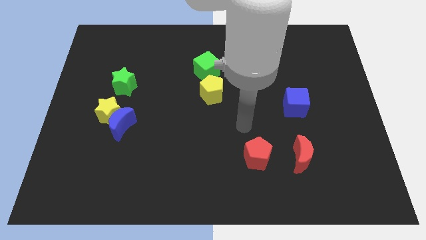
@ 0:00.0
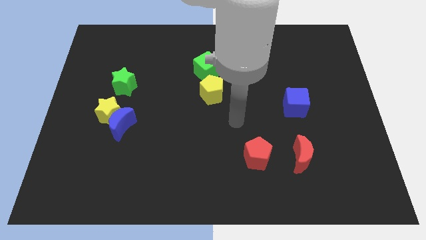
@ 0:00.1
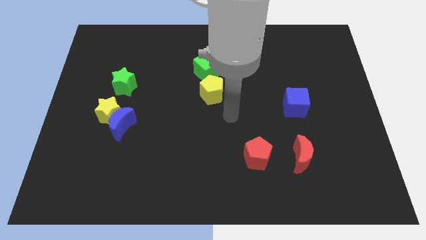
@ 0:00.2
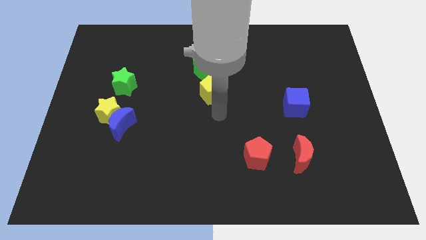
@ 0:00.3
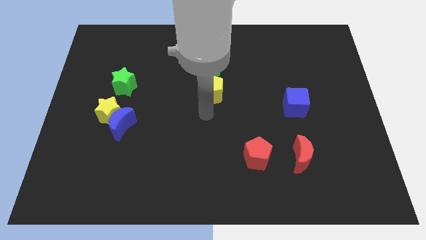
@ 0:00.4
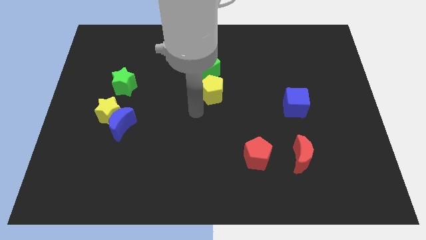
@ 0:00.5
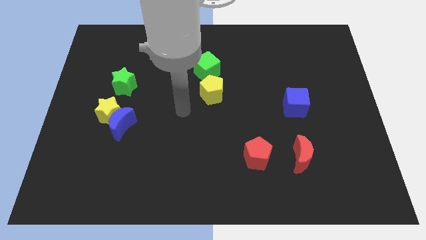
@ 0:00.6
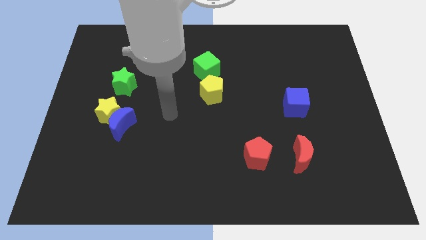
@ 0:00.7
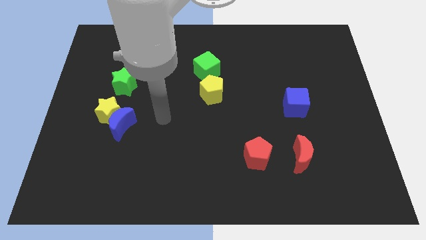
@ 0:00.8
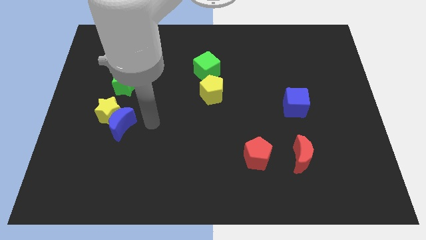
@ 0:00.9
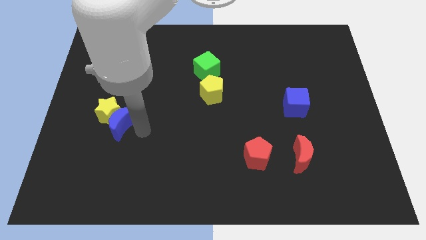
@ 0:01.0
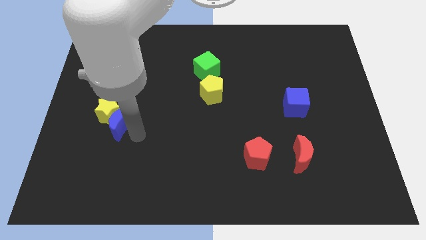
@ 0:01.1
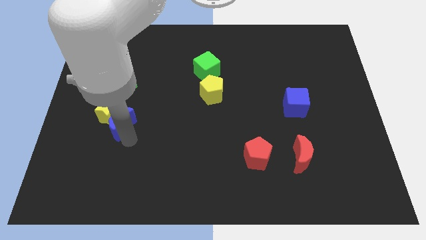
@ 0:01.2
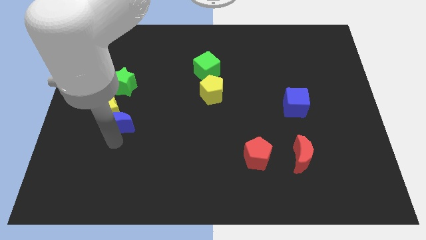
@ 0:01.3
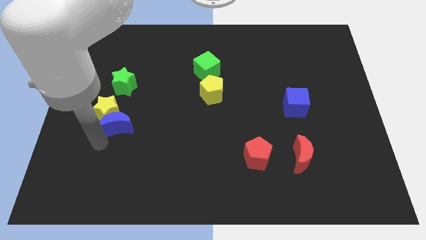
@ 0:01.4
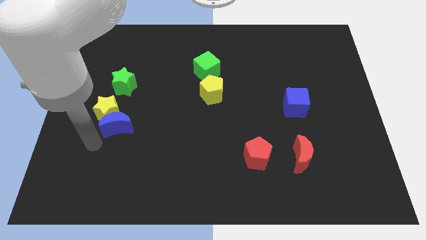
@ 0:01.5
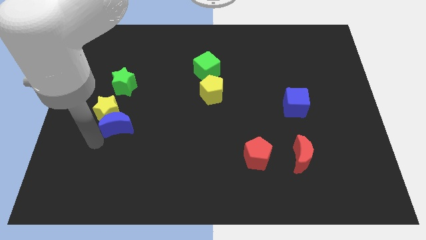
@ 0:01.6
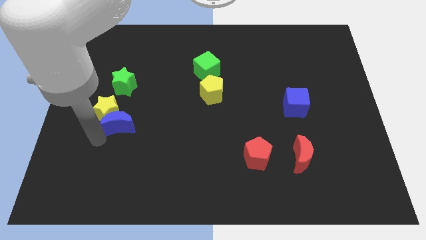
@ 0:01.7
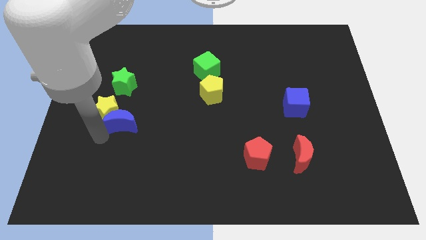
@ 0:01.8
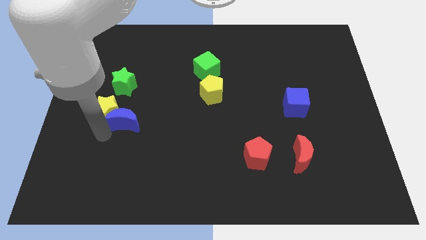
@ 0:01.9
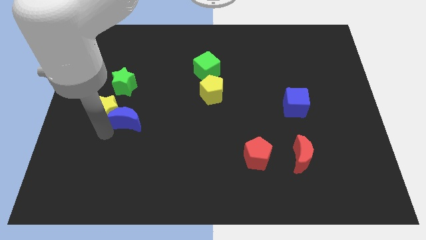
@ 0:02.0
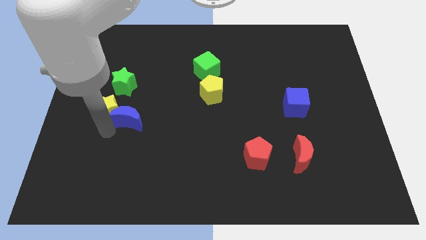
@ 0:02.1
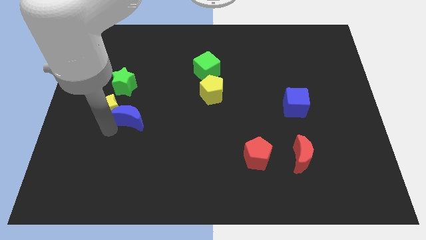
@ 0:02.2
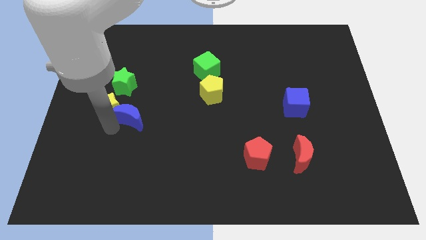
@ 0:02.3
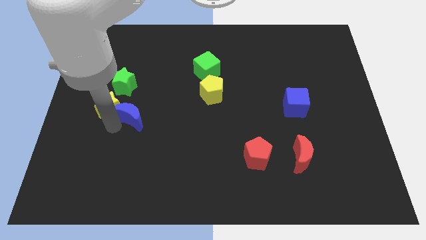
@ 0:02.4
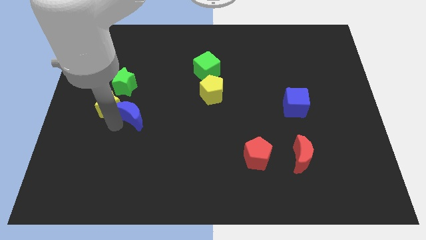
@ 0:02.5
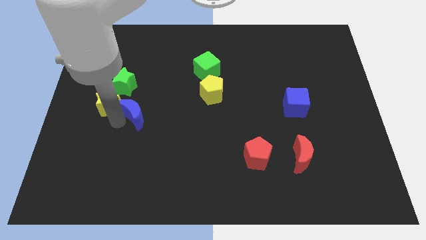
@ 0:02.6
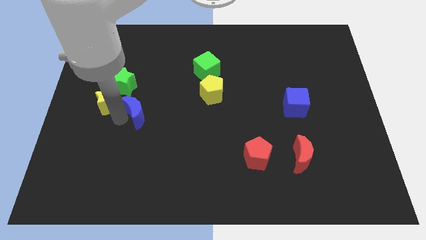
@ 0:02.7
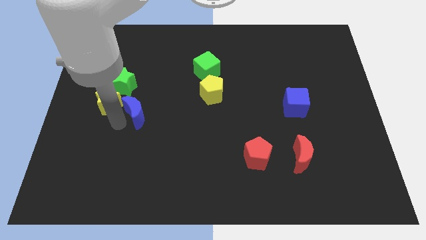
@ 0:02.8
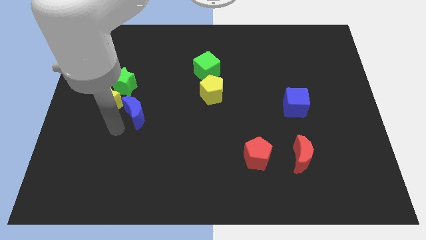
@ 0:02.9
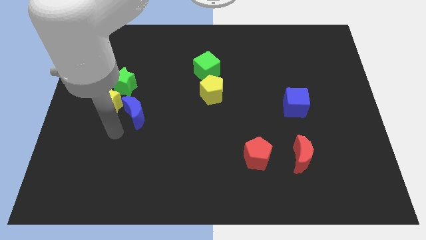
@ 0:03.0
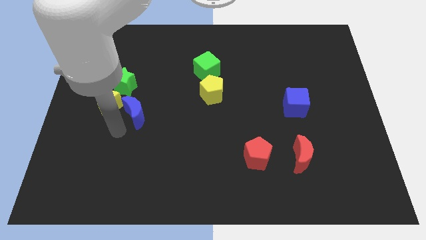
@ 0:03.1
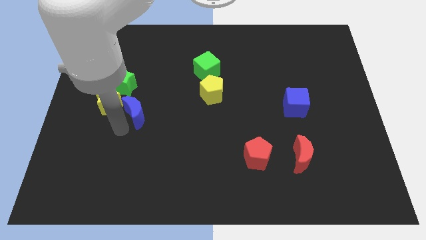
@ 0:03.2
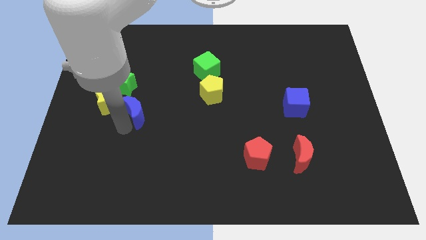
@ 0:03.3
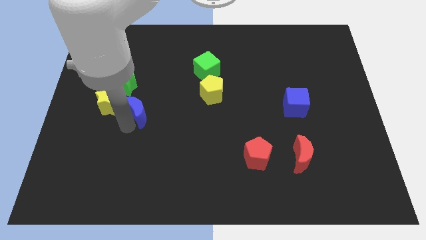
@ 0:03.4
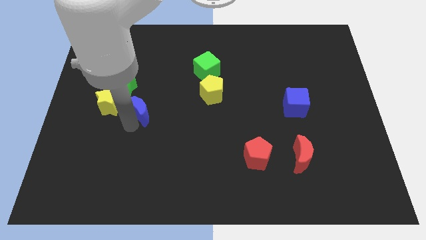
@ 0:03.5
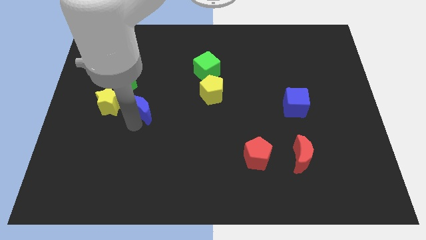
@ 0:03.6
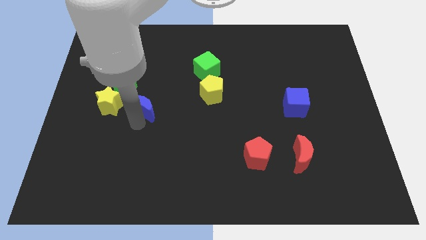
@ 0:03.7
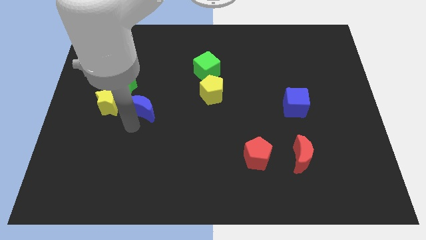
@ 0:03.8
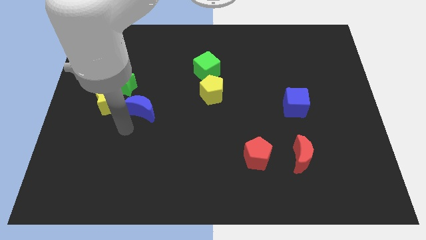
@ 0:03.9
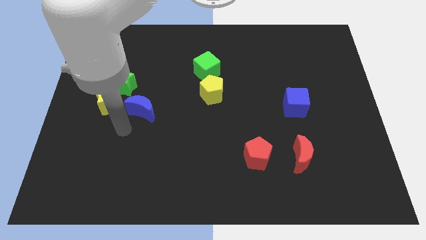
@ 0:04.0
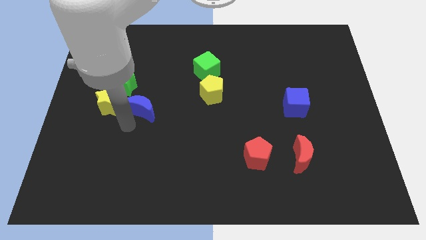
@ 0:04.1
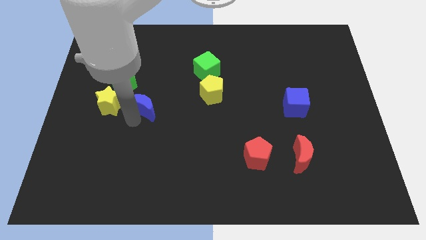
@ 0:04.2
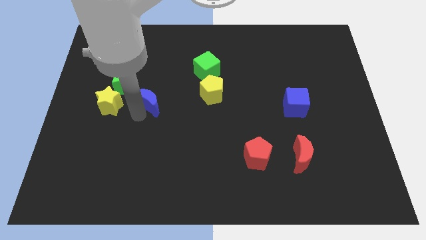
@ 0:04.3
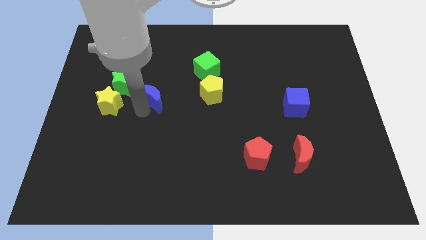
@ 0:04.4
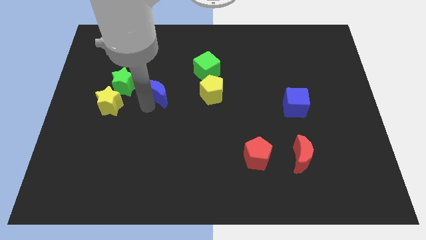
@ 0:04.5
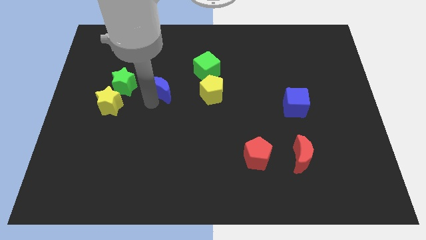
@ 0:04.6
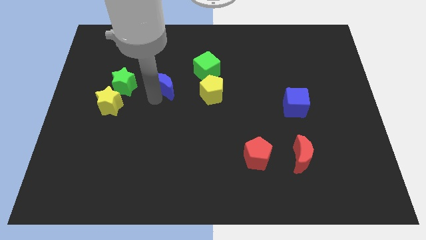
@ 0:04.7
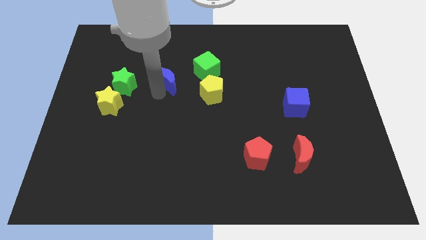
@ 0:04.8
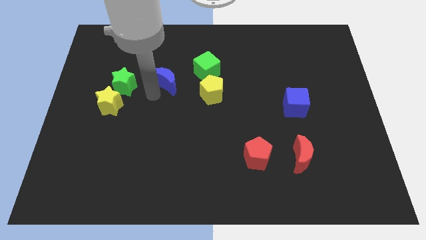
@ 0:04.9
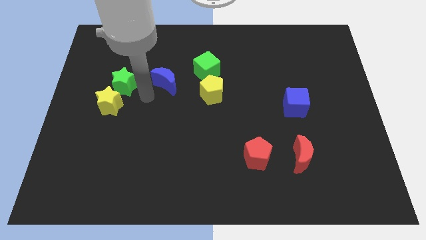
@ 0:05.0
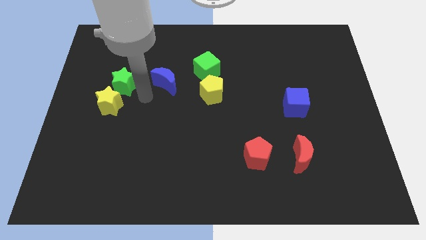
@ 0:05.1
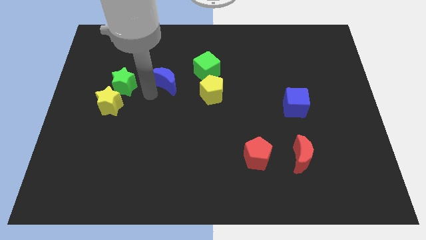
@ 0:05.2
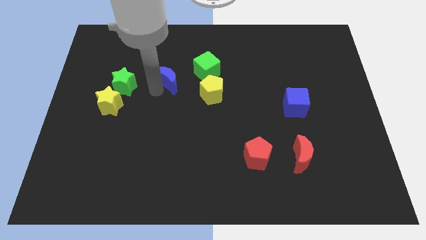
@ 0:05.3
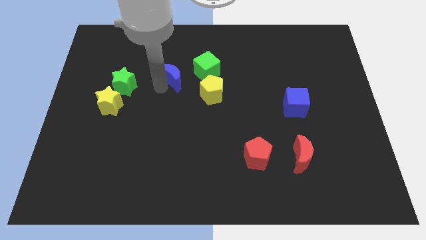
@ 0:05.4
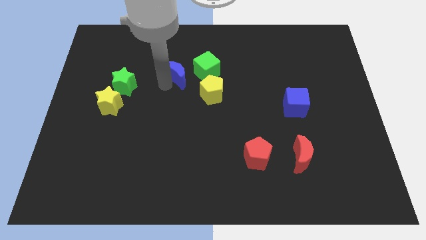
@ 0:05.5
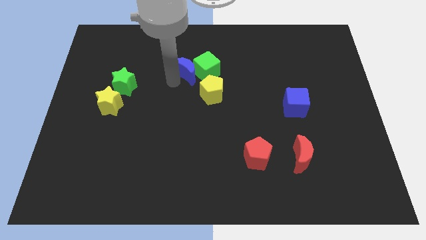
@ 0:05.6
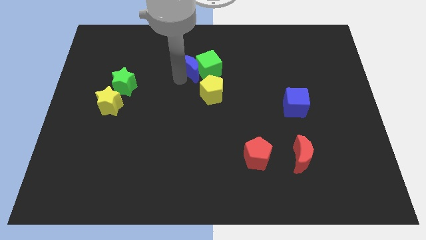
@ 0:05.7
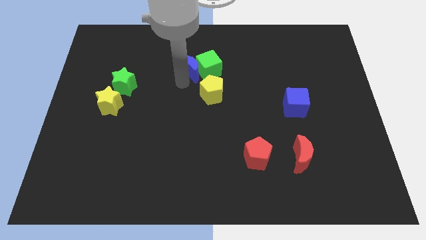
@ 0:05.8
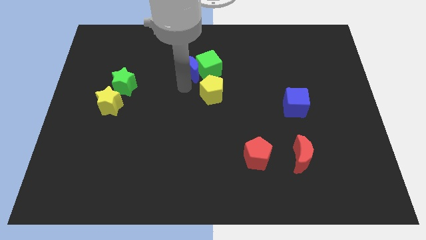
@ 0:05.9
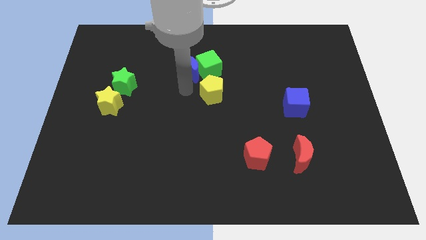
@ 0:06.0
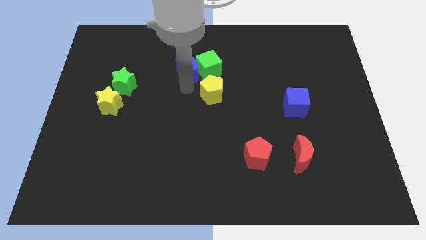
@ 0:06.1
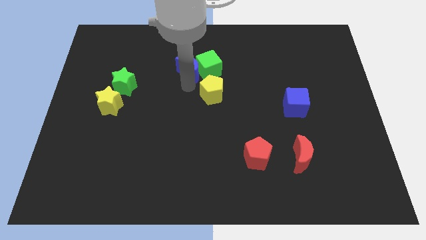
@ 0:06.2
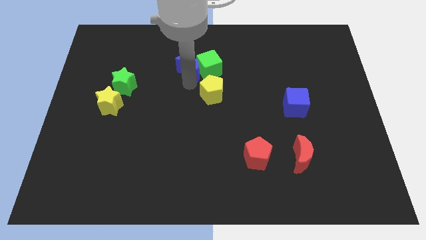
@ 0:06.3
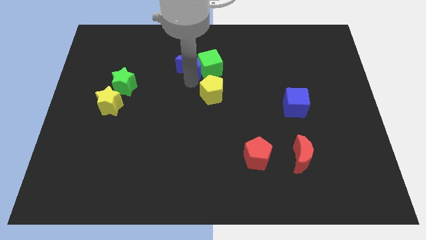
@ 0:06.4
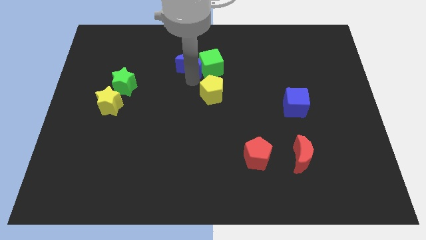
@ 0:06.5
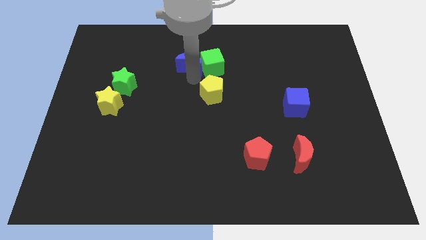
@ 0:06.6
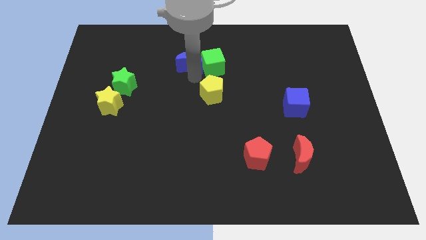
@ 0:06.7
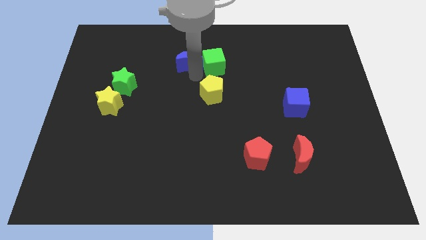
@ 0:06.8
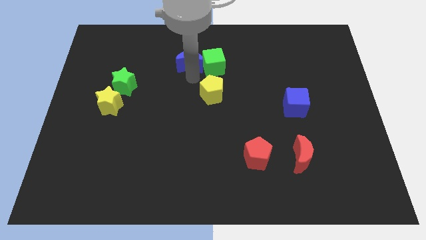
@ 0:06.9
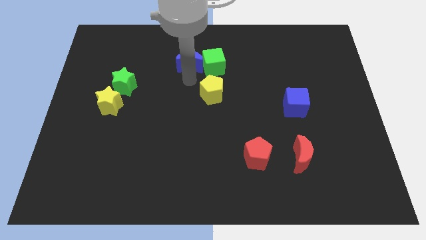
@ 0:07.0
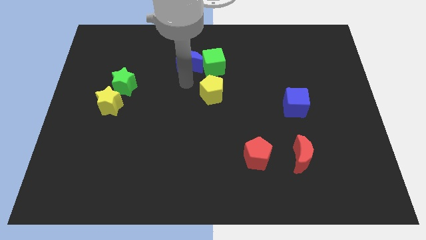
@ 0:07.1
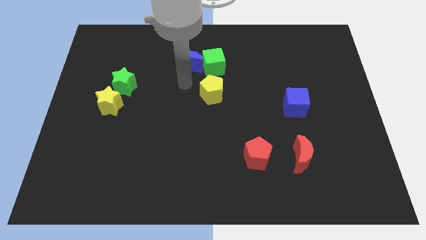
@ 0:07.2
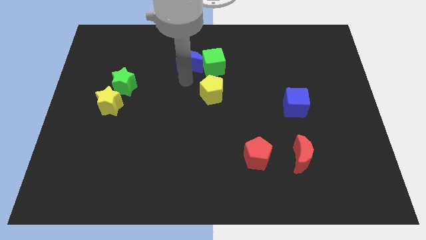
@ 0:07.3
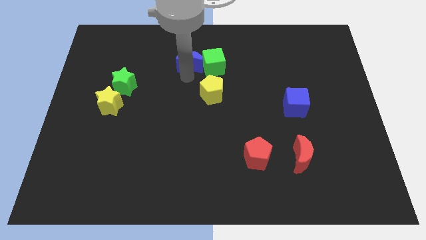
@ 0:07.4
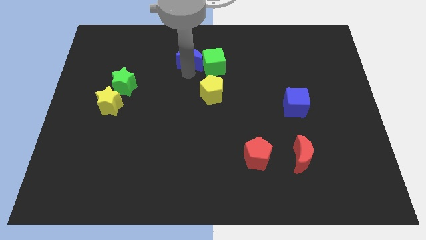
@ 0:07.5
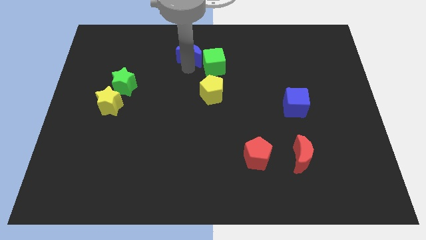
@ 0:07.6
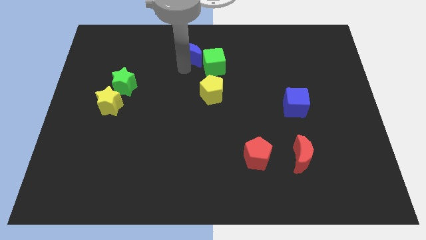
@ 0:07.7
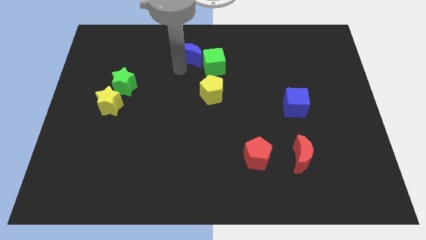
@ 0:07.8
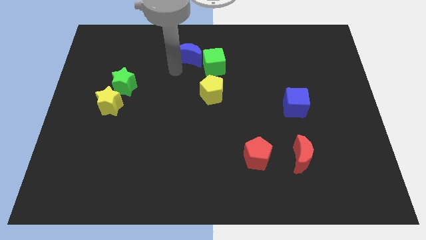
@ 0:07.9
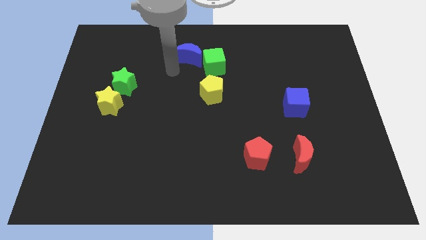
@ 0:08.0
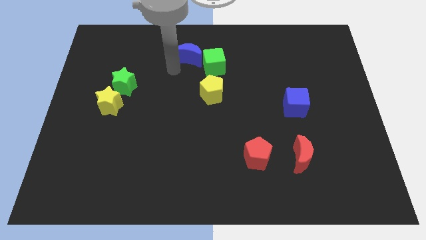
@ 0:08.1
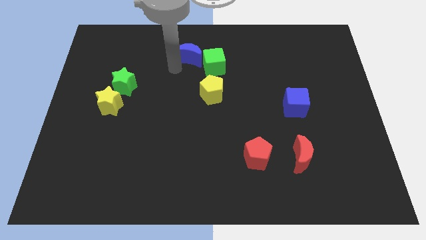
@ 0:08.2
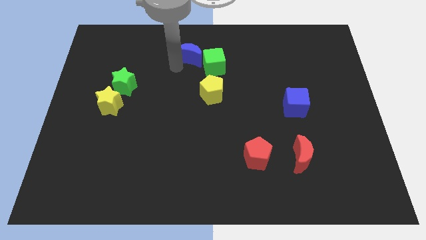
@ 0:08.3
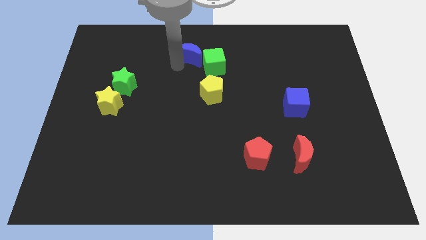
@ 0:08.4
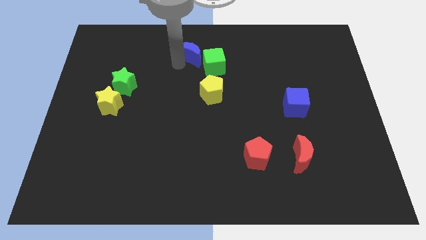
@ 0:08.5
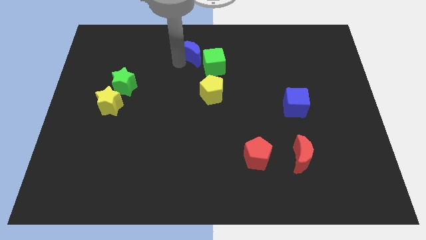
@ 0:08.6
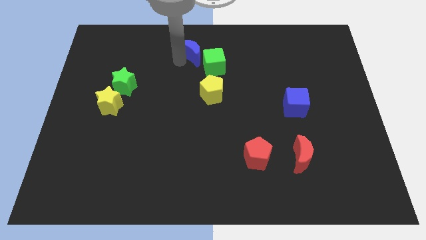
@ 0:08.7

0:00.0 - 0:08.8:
slide the blue moon to the towards your base
